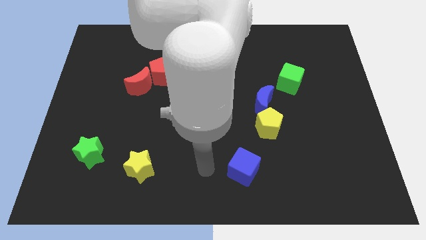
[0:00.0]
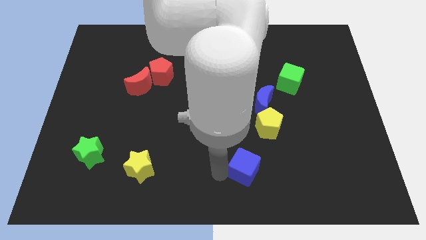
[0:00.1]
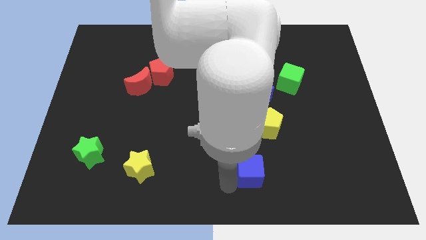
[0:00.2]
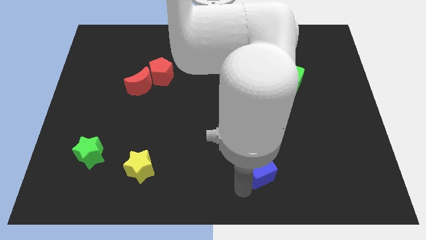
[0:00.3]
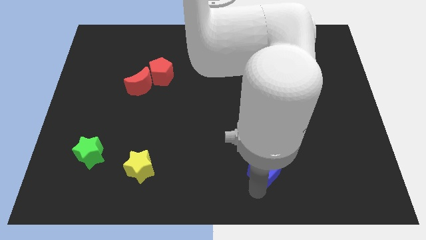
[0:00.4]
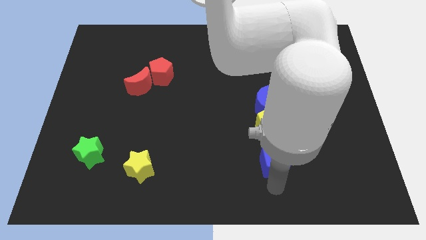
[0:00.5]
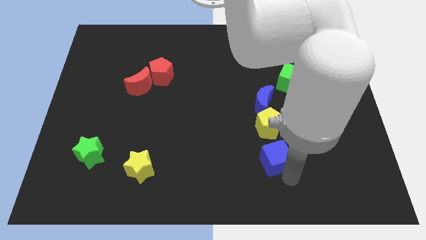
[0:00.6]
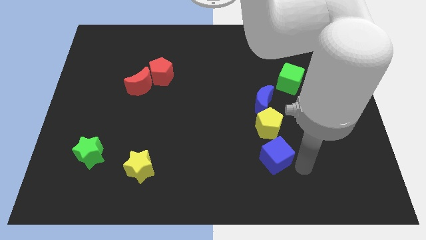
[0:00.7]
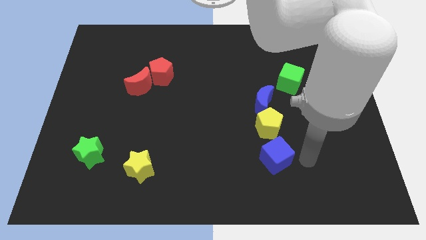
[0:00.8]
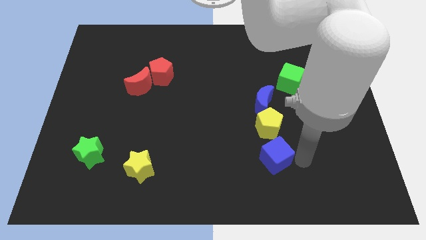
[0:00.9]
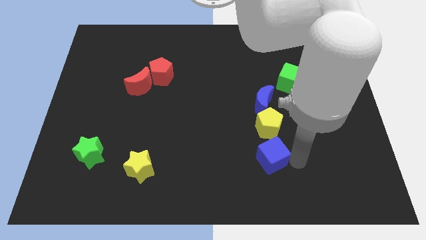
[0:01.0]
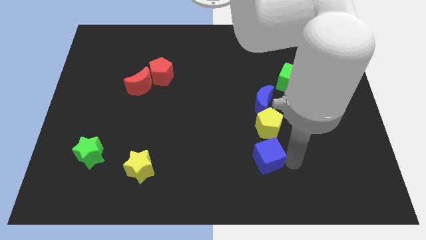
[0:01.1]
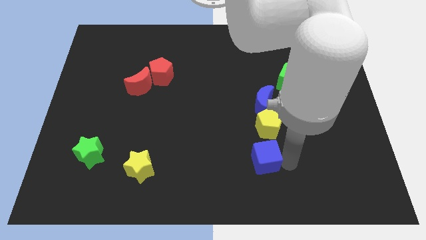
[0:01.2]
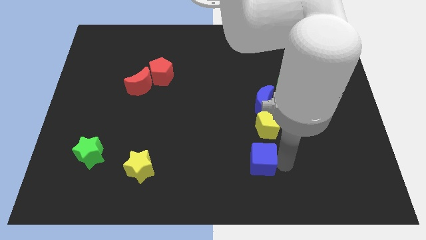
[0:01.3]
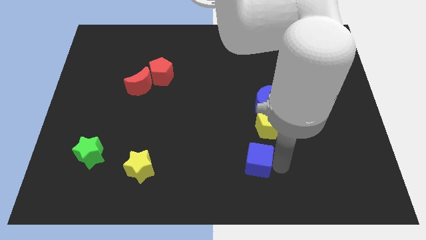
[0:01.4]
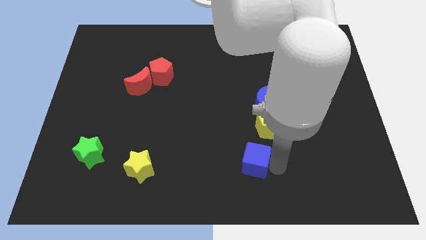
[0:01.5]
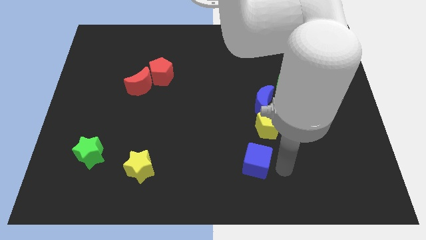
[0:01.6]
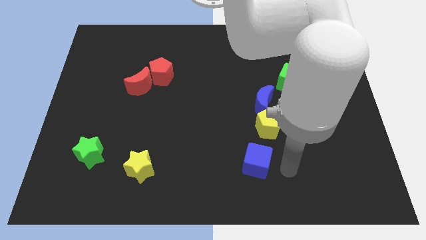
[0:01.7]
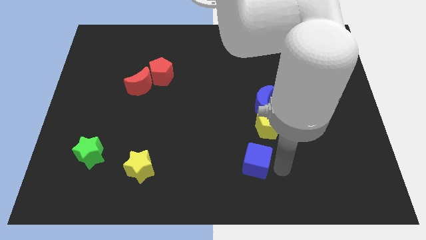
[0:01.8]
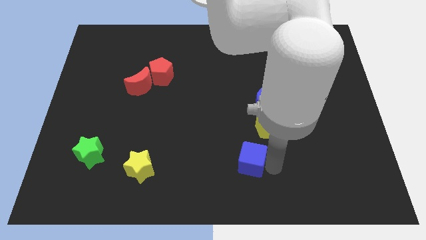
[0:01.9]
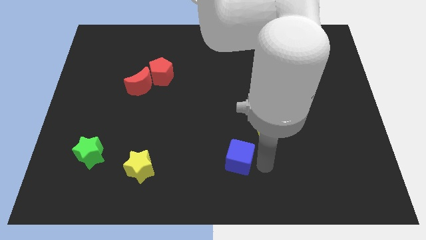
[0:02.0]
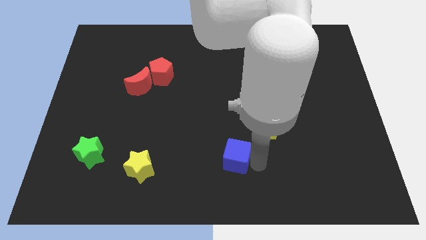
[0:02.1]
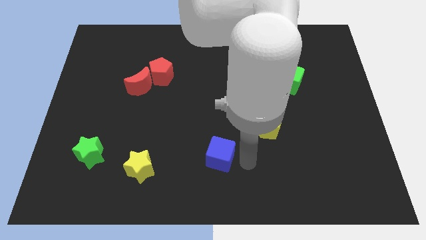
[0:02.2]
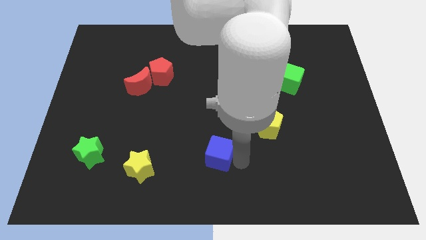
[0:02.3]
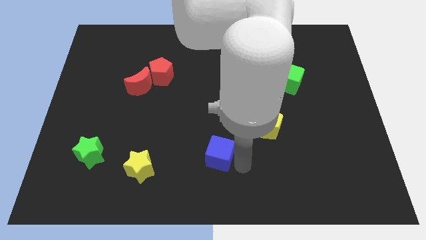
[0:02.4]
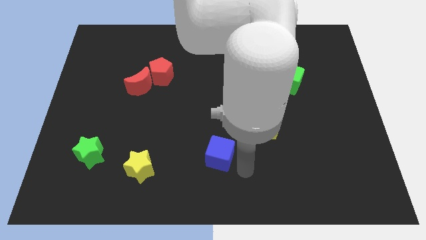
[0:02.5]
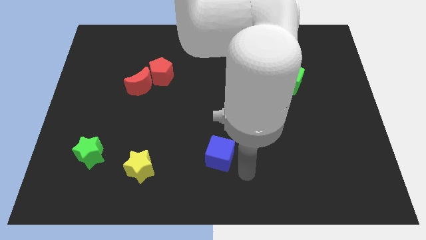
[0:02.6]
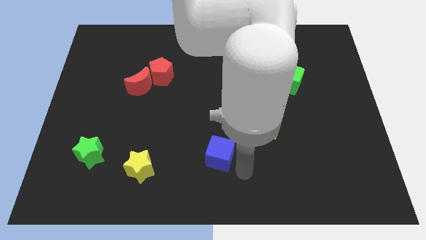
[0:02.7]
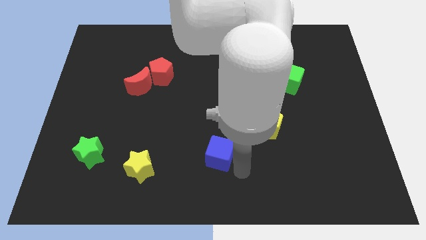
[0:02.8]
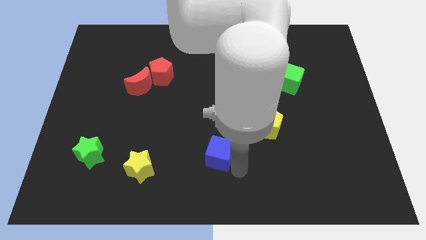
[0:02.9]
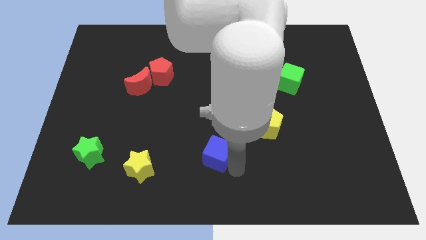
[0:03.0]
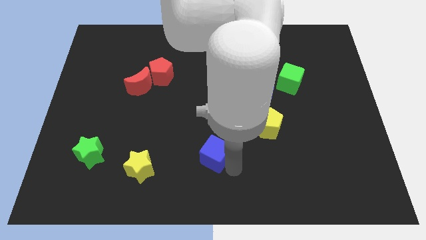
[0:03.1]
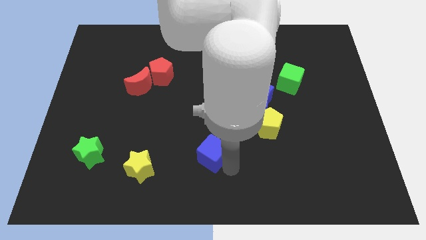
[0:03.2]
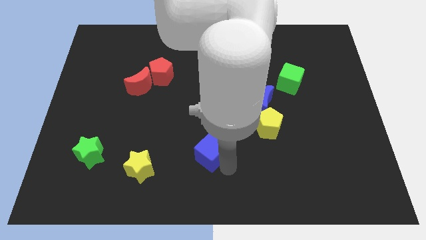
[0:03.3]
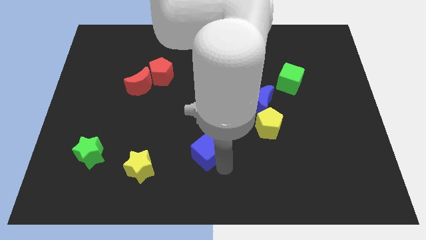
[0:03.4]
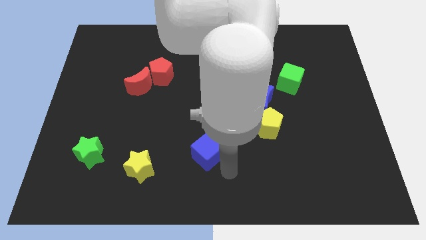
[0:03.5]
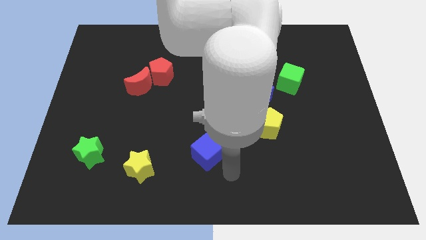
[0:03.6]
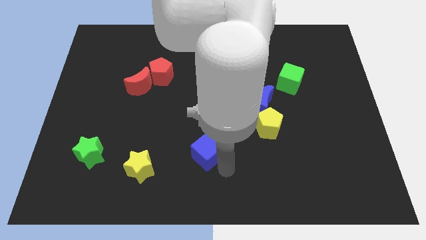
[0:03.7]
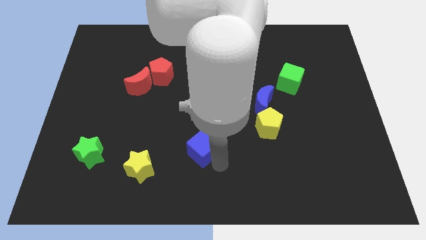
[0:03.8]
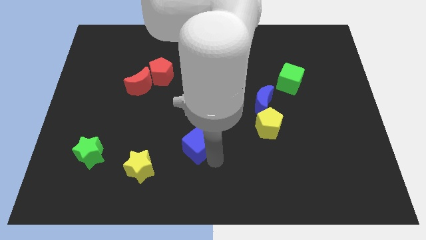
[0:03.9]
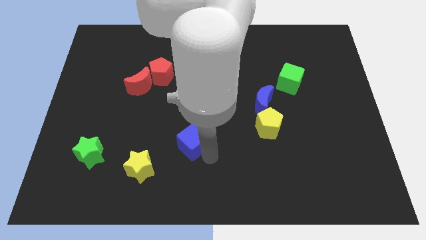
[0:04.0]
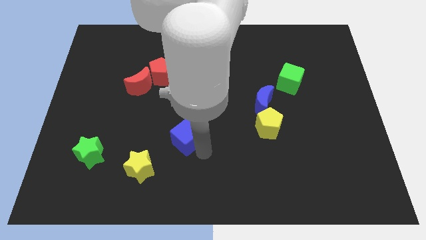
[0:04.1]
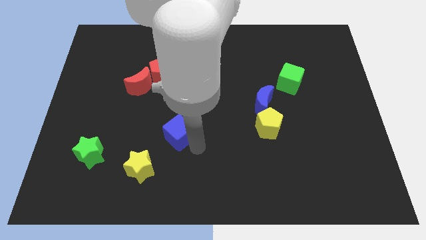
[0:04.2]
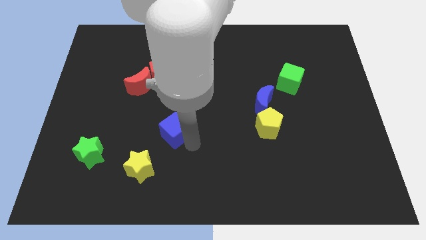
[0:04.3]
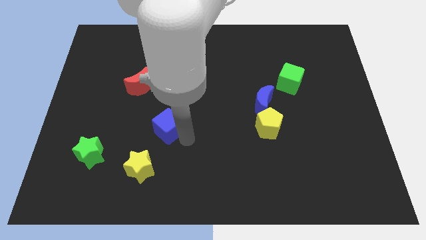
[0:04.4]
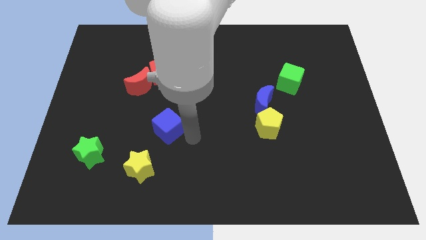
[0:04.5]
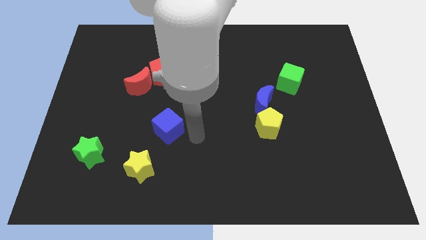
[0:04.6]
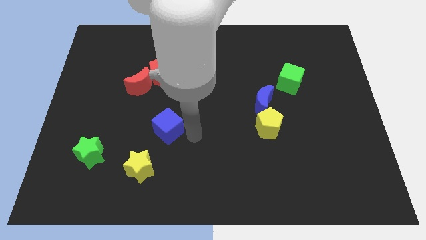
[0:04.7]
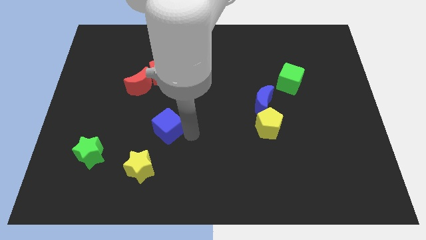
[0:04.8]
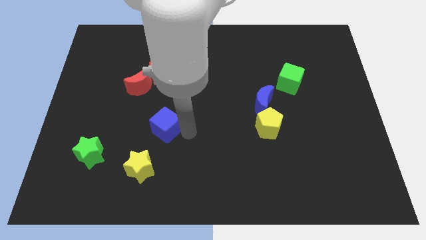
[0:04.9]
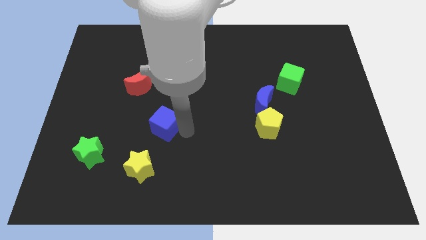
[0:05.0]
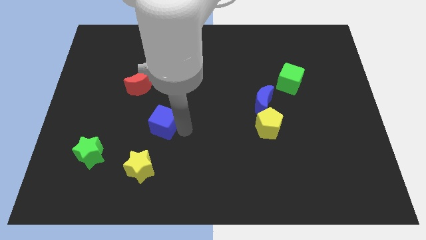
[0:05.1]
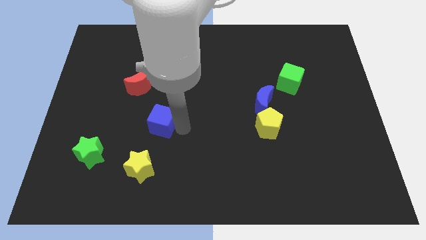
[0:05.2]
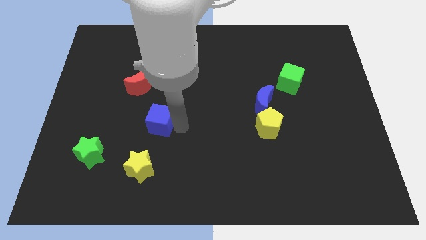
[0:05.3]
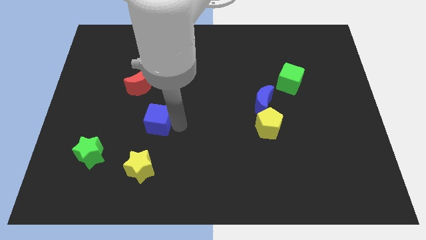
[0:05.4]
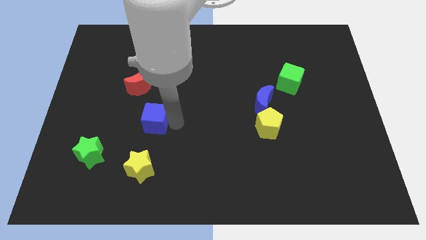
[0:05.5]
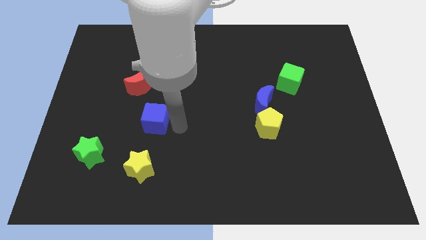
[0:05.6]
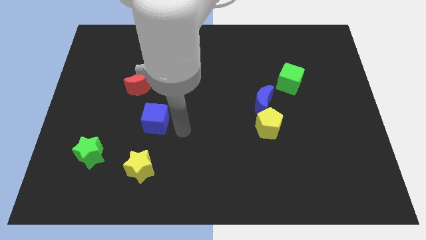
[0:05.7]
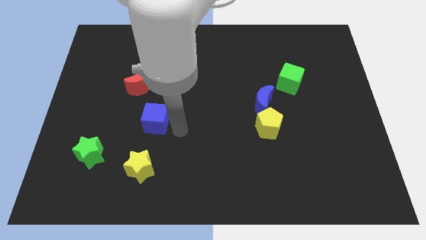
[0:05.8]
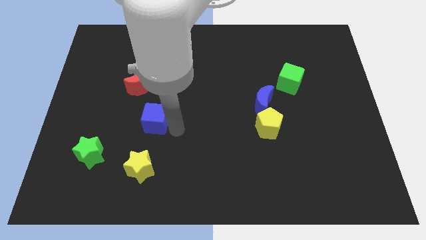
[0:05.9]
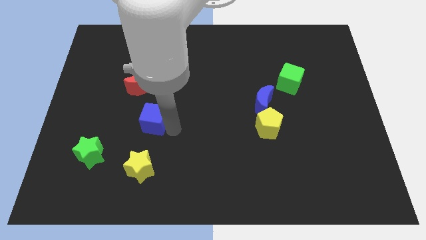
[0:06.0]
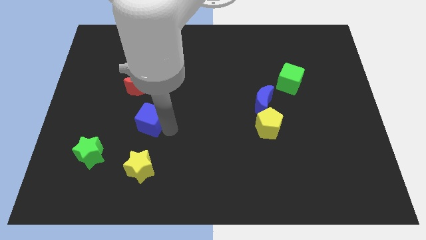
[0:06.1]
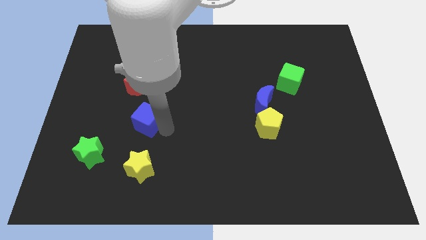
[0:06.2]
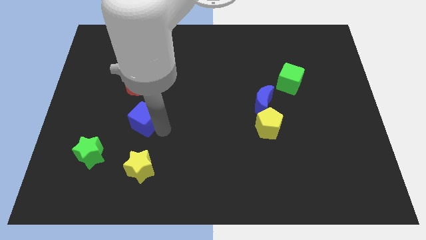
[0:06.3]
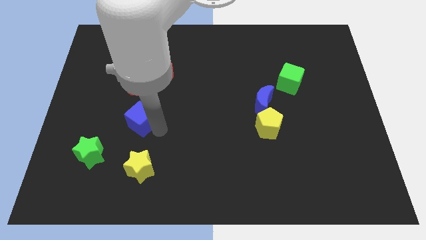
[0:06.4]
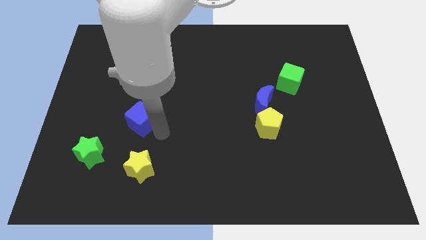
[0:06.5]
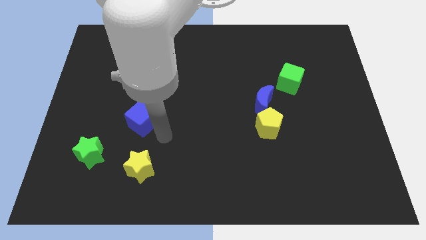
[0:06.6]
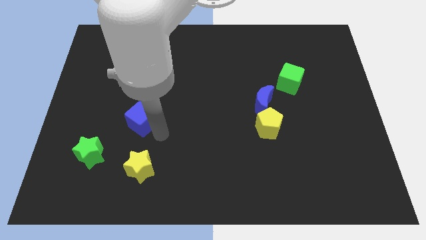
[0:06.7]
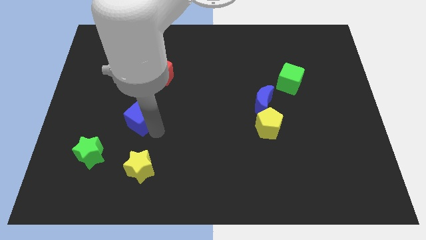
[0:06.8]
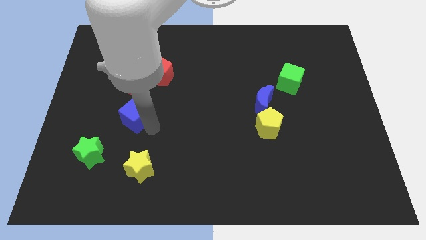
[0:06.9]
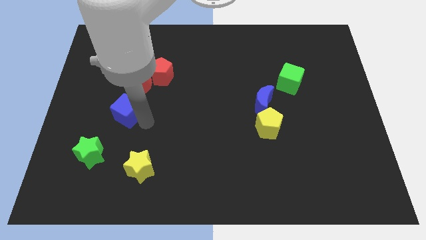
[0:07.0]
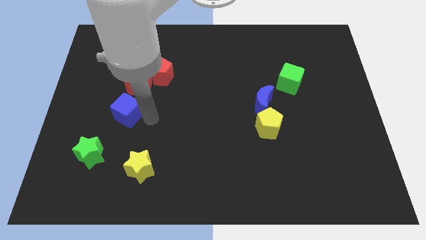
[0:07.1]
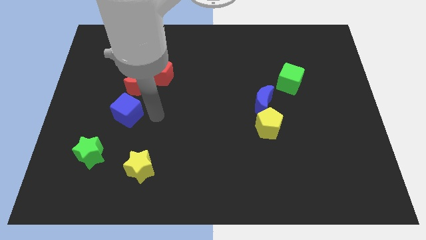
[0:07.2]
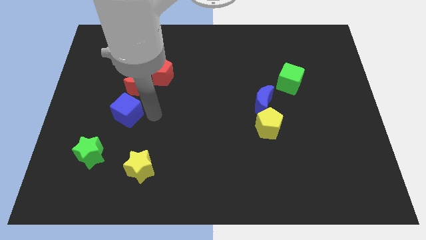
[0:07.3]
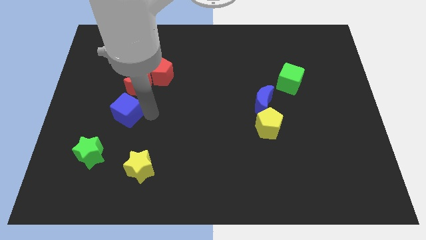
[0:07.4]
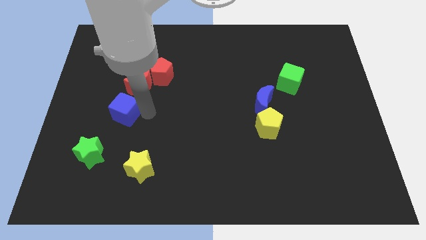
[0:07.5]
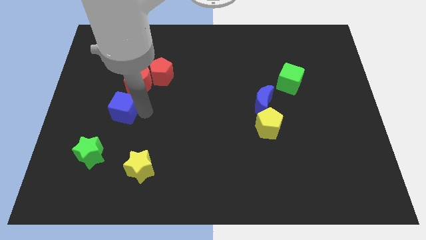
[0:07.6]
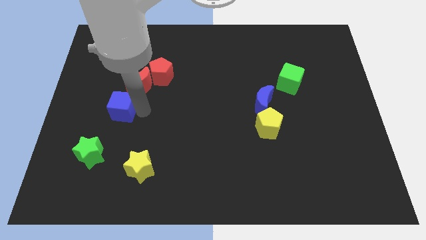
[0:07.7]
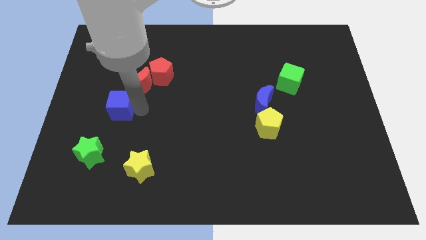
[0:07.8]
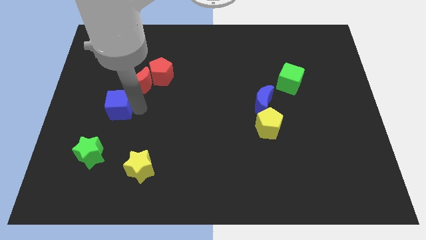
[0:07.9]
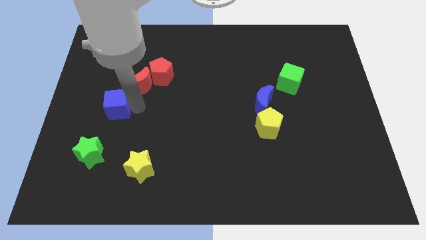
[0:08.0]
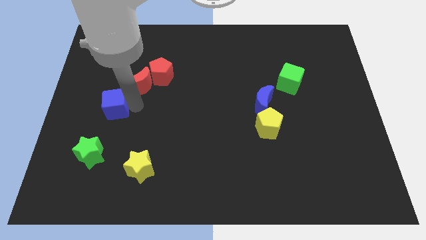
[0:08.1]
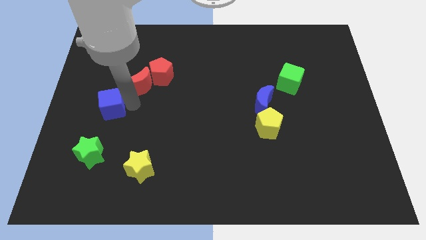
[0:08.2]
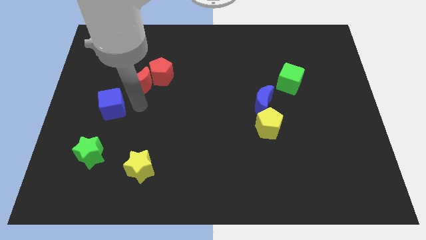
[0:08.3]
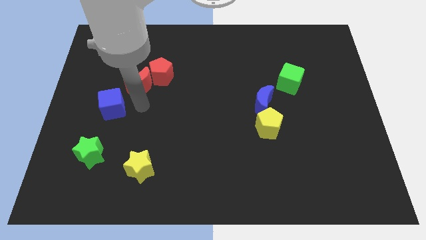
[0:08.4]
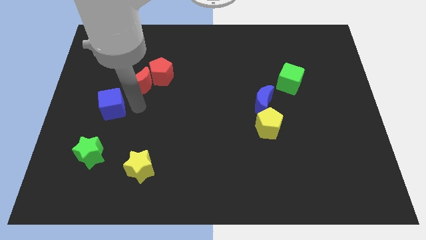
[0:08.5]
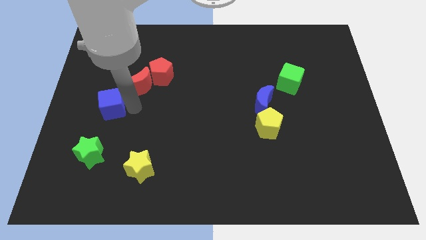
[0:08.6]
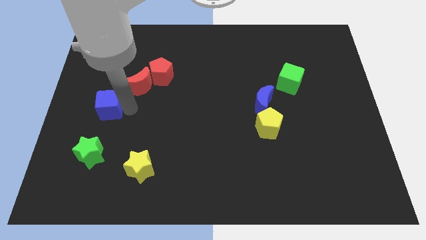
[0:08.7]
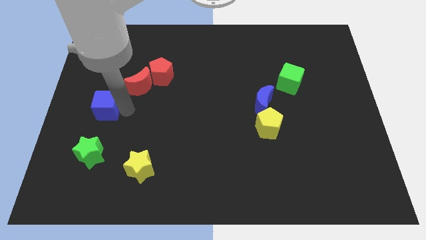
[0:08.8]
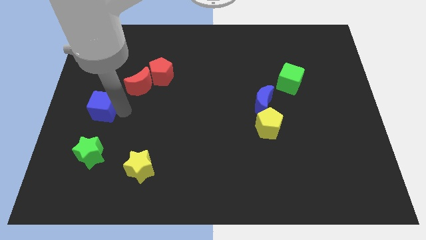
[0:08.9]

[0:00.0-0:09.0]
slide the blue cube to the center left
